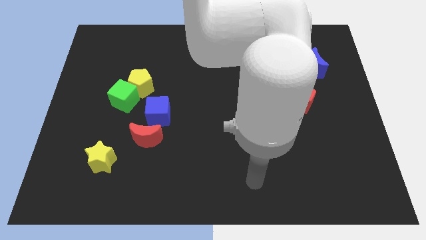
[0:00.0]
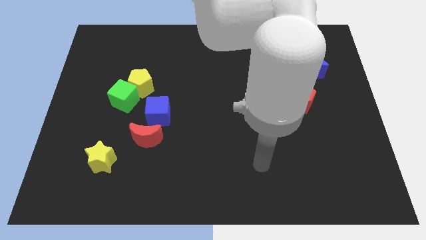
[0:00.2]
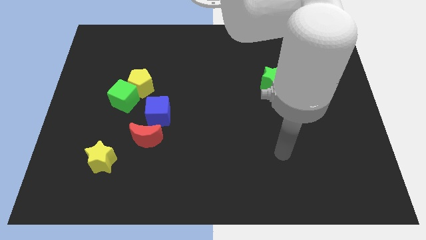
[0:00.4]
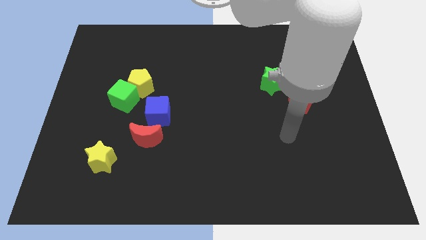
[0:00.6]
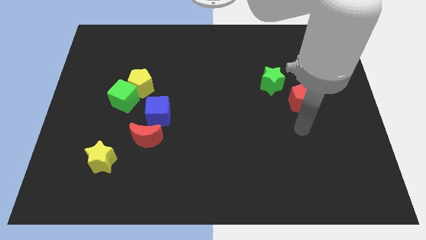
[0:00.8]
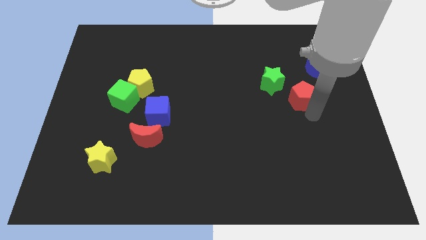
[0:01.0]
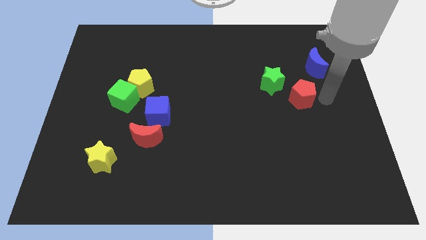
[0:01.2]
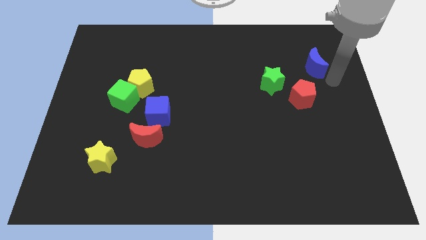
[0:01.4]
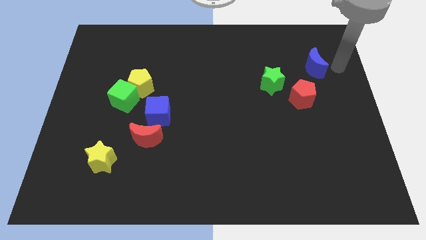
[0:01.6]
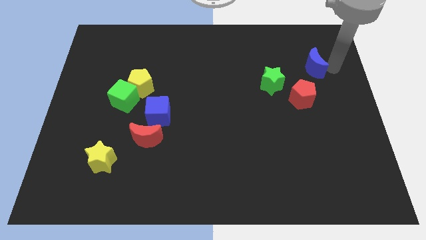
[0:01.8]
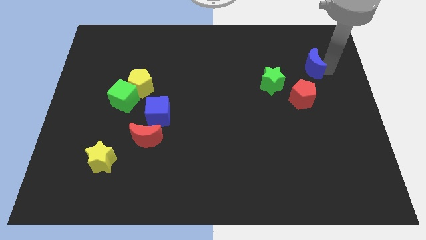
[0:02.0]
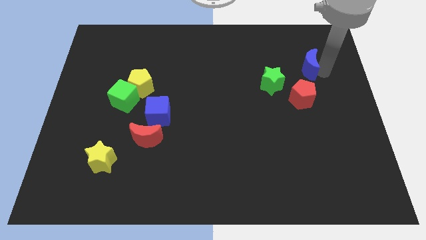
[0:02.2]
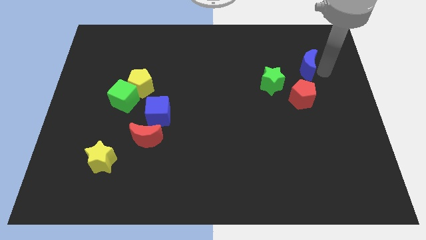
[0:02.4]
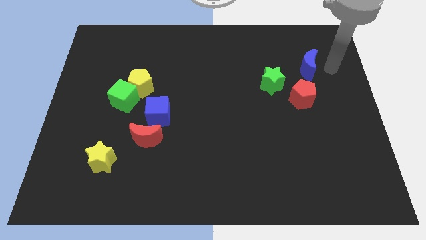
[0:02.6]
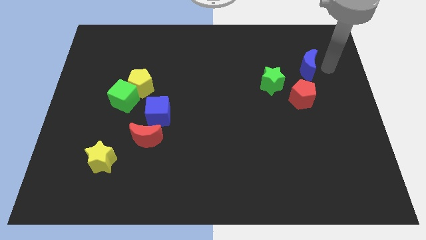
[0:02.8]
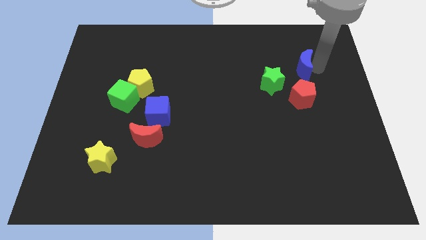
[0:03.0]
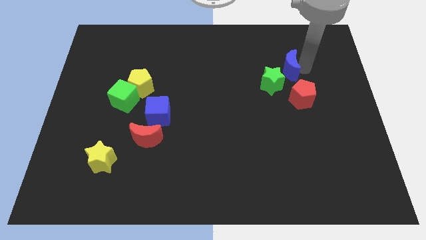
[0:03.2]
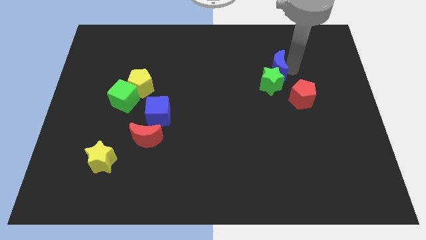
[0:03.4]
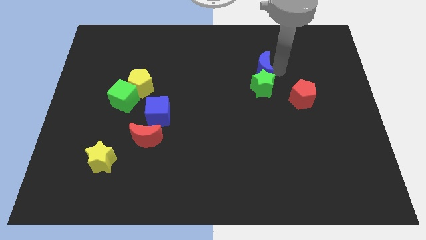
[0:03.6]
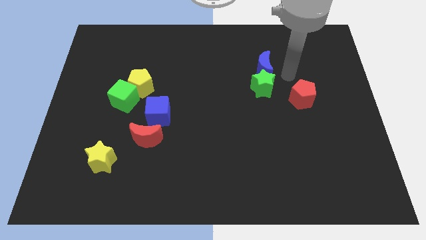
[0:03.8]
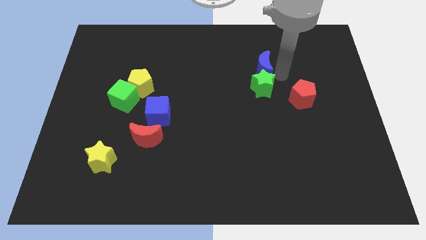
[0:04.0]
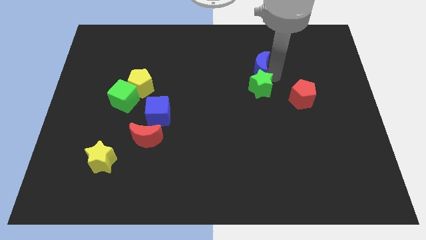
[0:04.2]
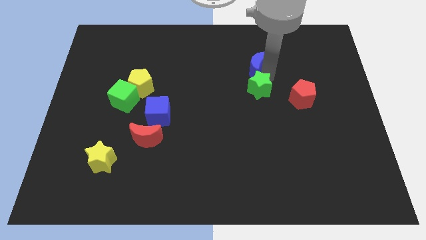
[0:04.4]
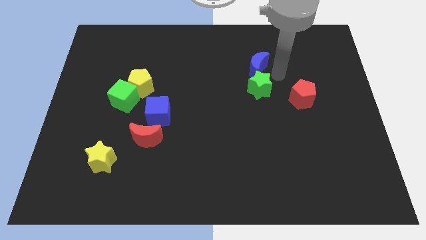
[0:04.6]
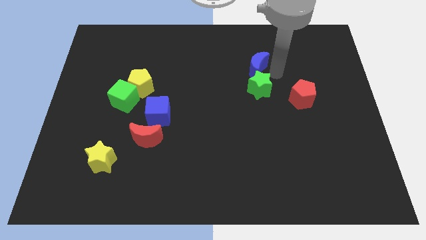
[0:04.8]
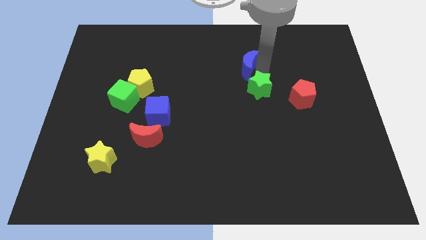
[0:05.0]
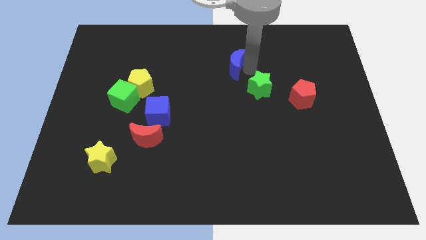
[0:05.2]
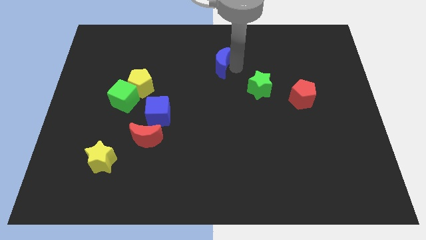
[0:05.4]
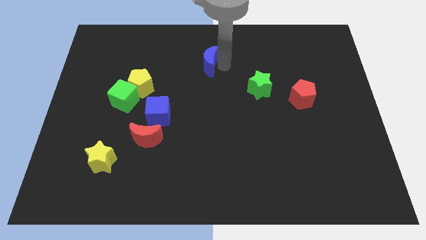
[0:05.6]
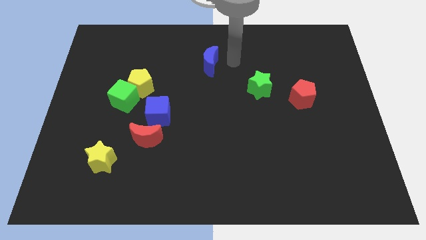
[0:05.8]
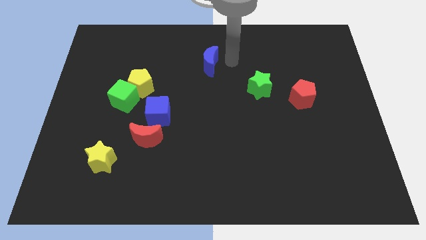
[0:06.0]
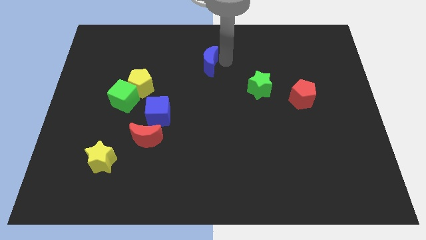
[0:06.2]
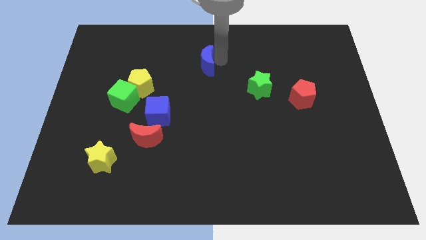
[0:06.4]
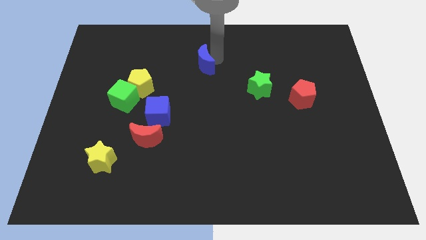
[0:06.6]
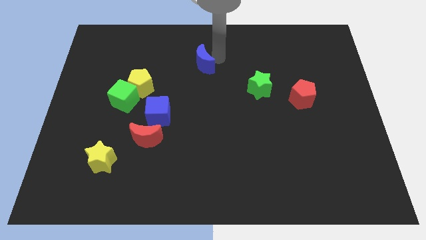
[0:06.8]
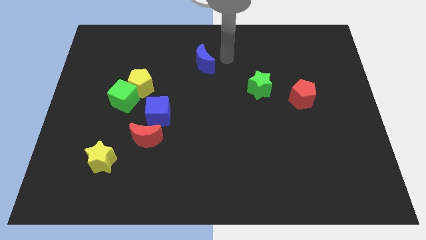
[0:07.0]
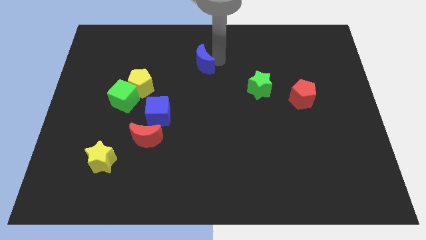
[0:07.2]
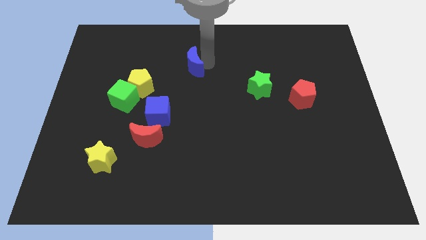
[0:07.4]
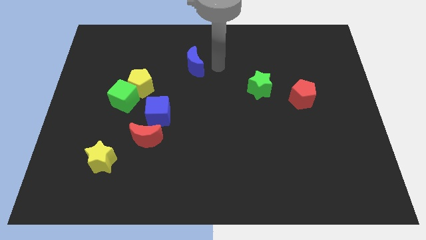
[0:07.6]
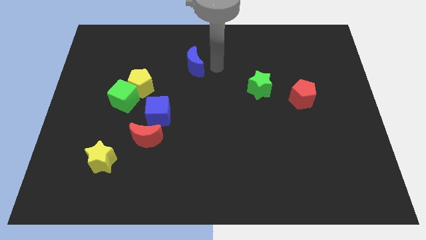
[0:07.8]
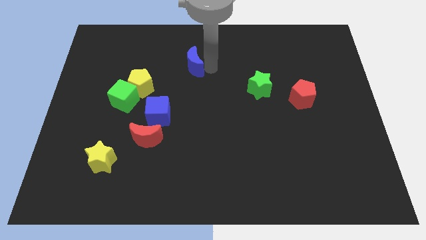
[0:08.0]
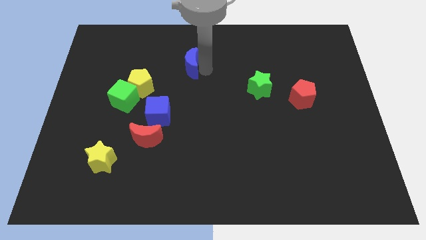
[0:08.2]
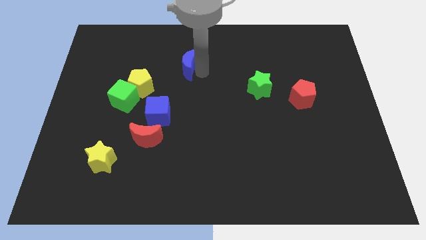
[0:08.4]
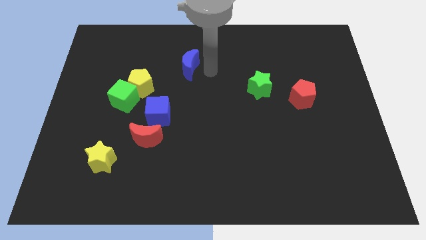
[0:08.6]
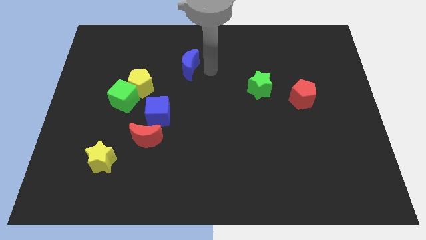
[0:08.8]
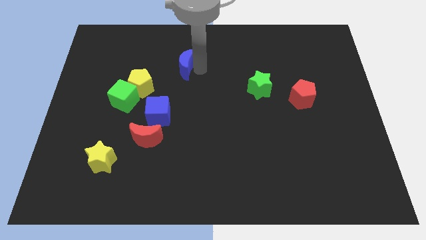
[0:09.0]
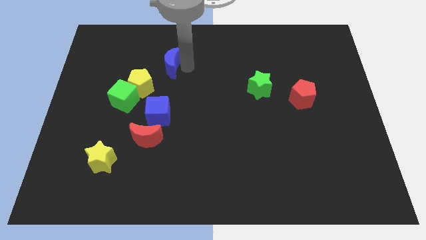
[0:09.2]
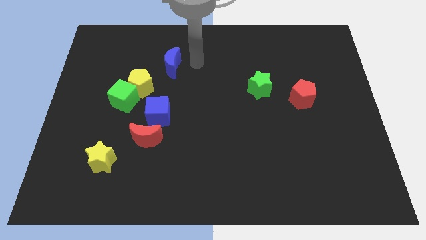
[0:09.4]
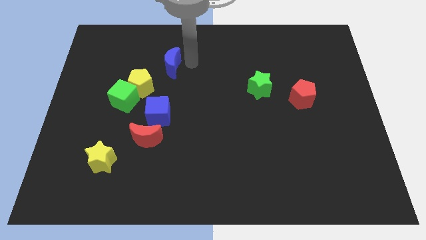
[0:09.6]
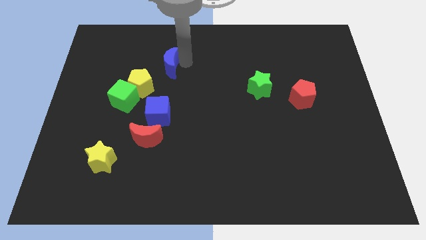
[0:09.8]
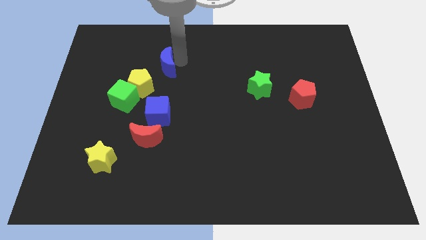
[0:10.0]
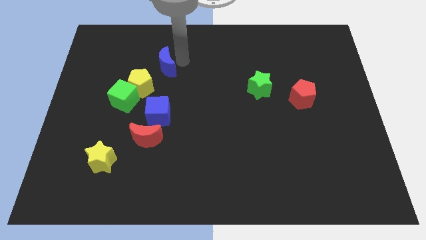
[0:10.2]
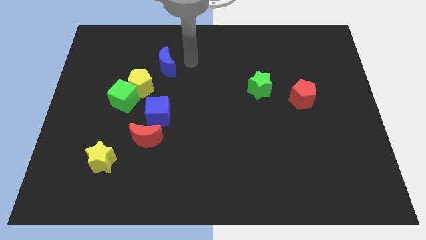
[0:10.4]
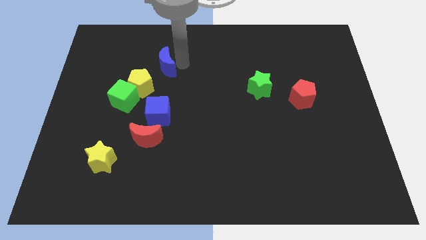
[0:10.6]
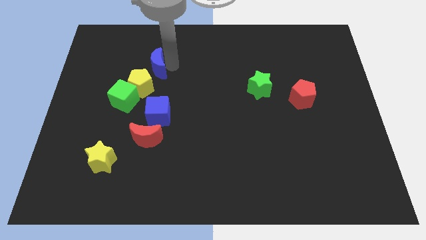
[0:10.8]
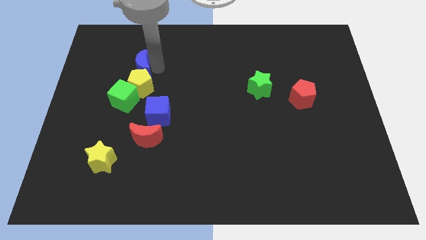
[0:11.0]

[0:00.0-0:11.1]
push the blue moon diagonally up and to the left of the yellow pentagon

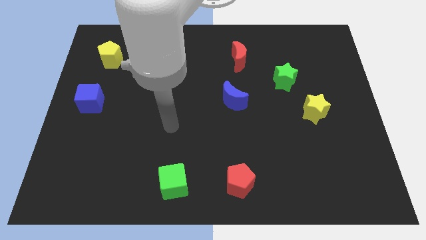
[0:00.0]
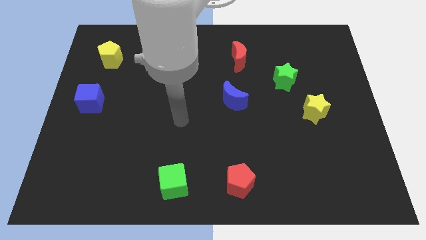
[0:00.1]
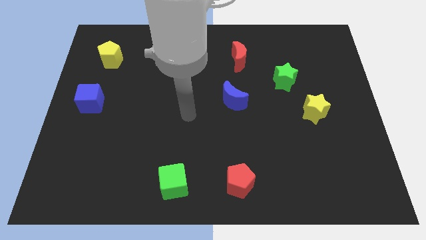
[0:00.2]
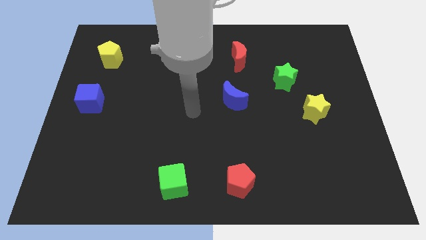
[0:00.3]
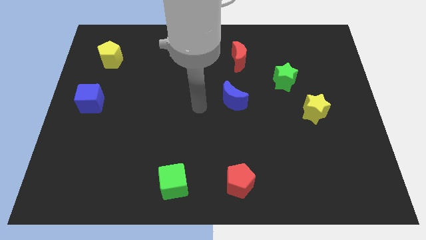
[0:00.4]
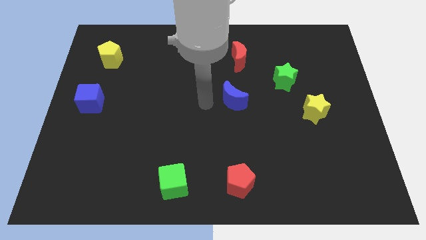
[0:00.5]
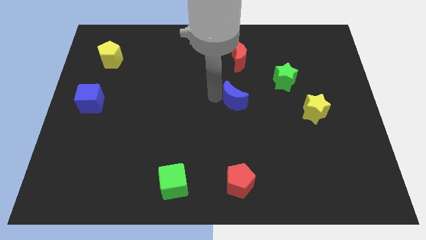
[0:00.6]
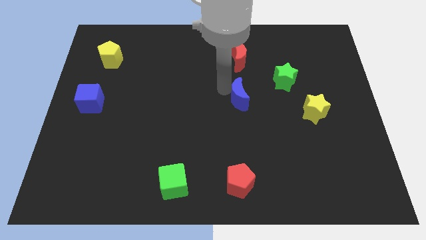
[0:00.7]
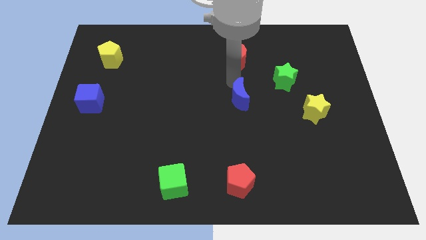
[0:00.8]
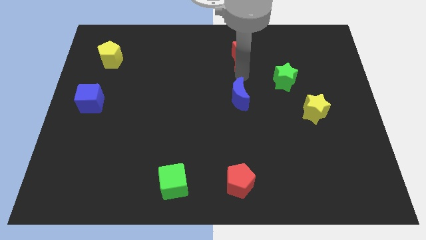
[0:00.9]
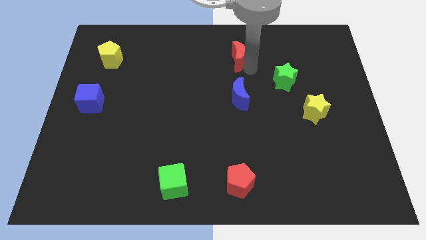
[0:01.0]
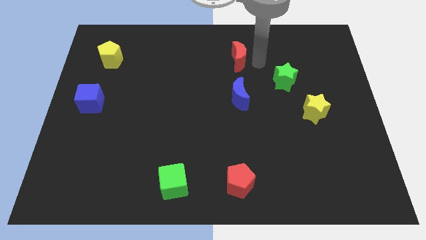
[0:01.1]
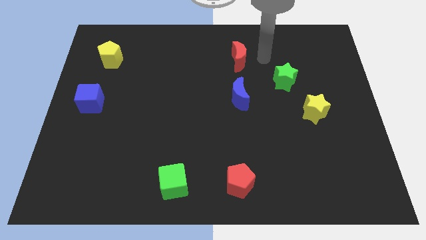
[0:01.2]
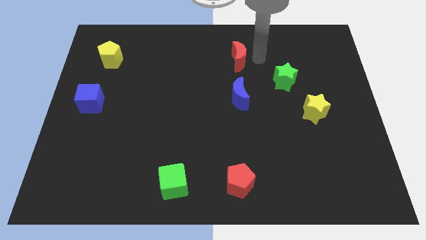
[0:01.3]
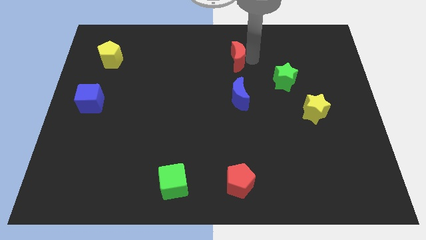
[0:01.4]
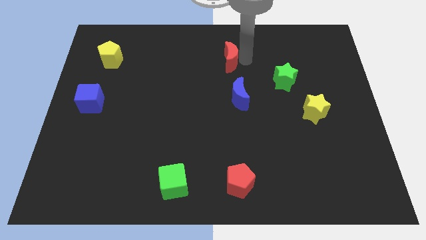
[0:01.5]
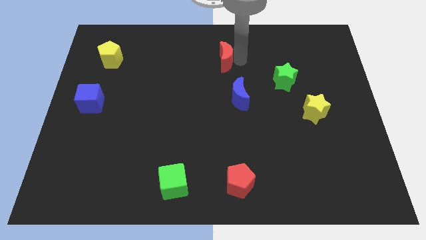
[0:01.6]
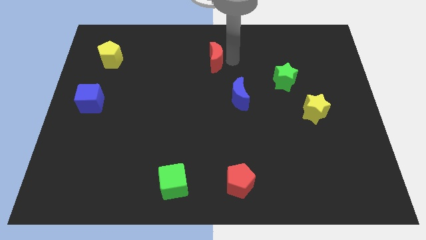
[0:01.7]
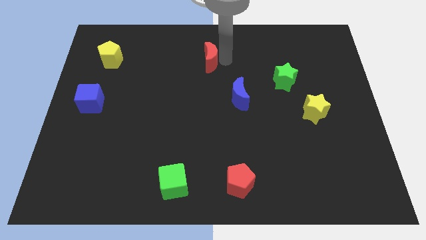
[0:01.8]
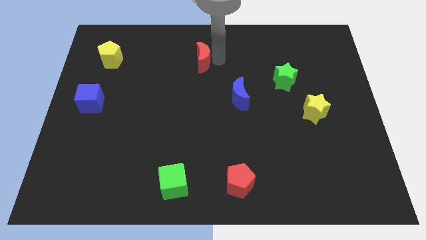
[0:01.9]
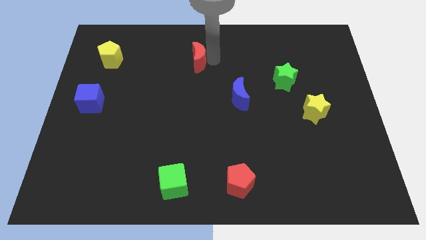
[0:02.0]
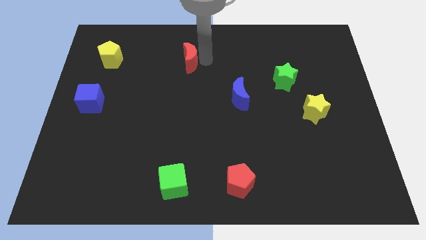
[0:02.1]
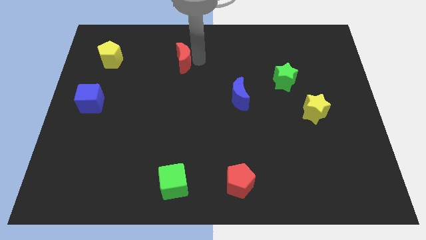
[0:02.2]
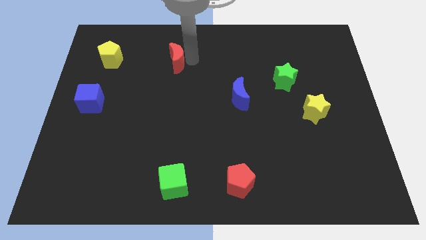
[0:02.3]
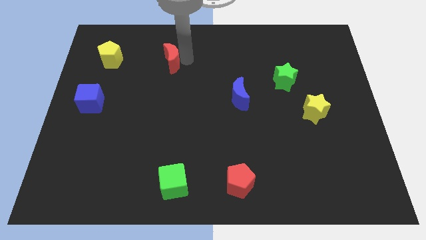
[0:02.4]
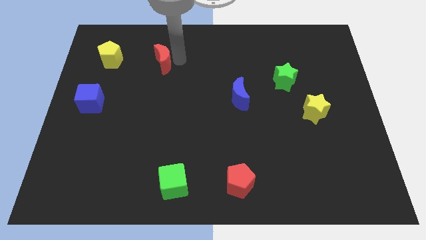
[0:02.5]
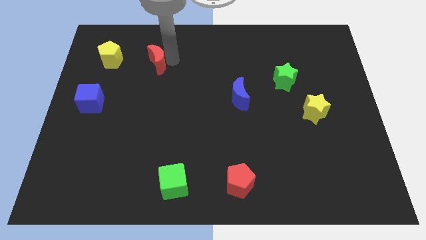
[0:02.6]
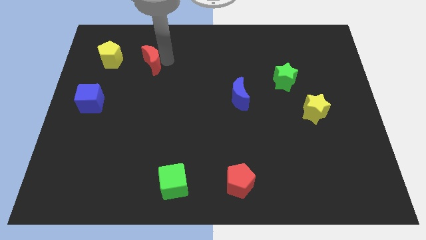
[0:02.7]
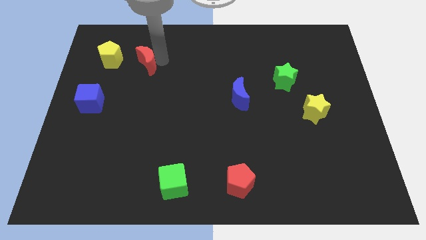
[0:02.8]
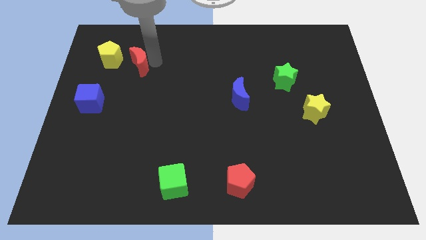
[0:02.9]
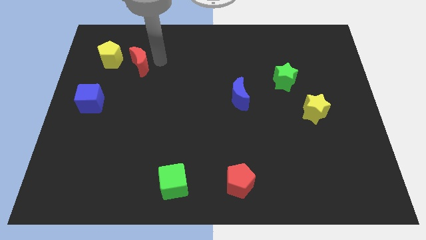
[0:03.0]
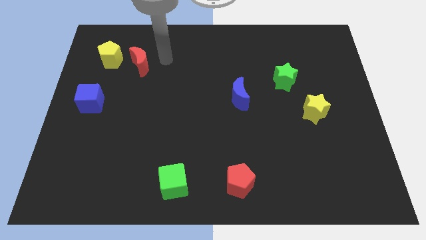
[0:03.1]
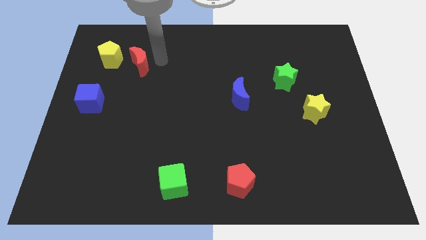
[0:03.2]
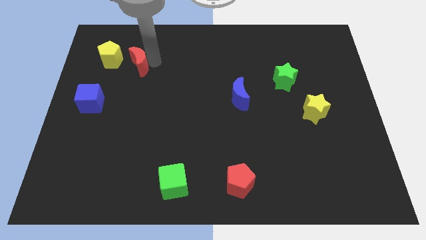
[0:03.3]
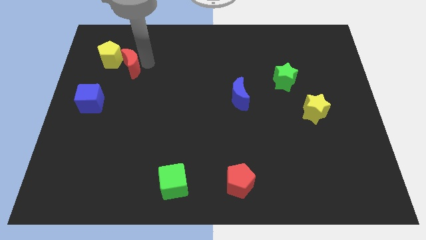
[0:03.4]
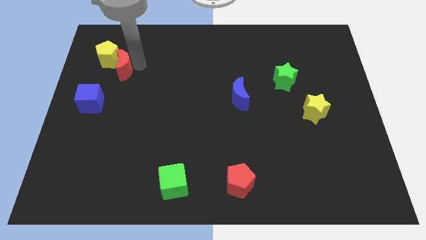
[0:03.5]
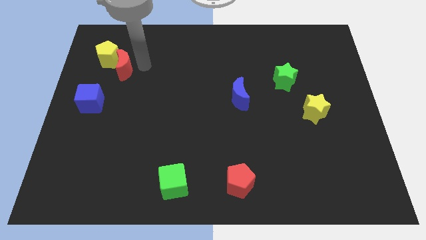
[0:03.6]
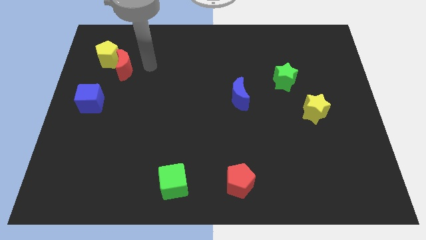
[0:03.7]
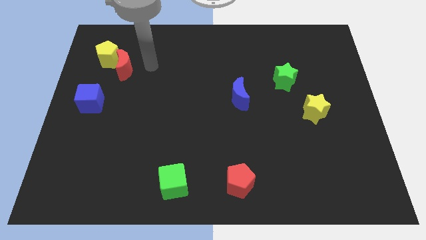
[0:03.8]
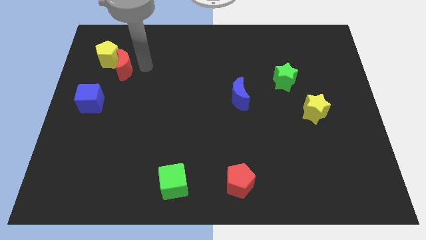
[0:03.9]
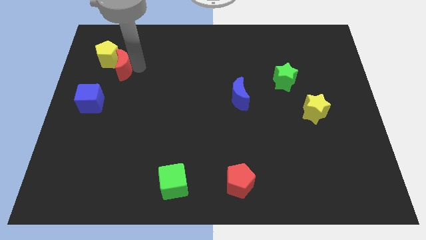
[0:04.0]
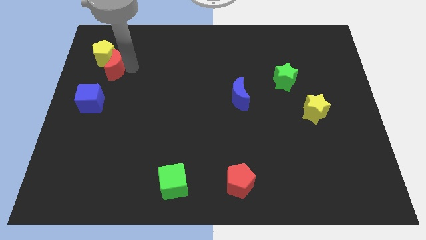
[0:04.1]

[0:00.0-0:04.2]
move the red moon to the top of the blue cube
